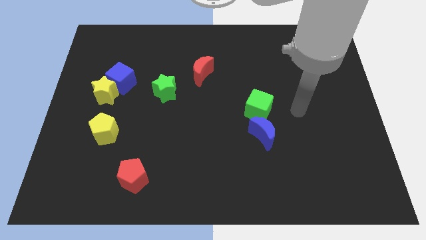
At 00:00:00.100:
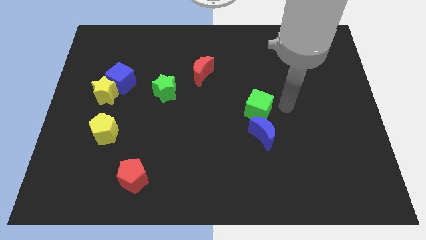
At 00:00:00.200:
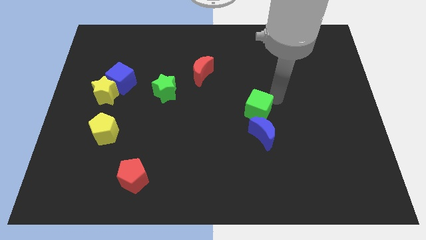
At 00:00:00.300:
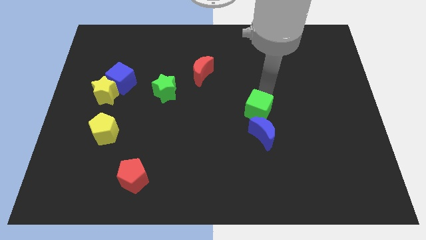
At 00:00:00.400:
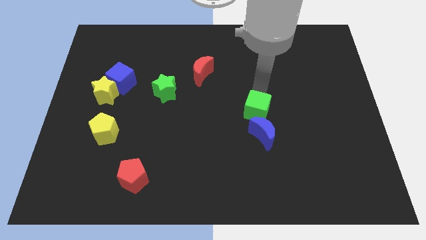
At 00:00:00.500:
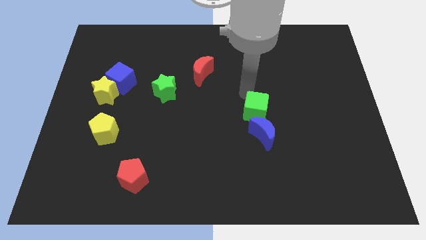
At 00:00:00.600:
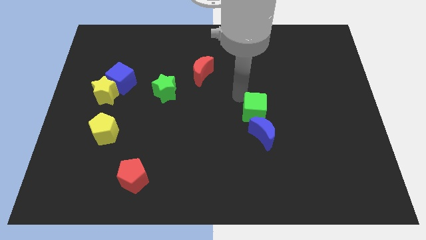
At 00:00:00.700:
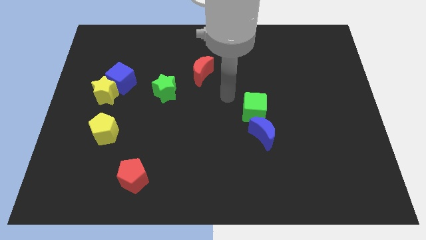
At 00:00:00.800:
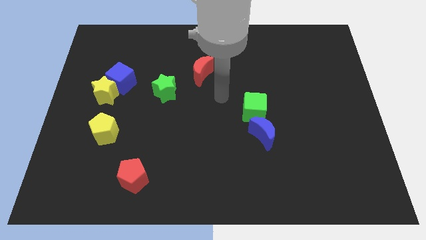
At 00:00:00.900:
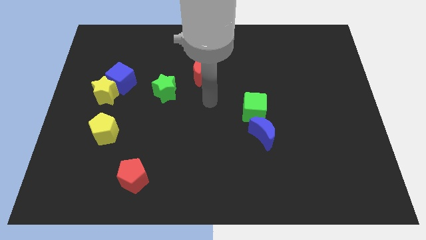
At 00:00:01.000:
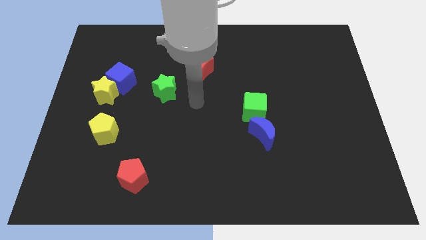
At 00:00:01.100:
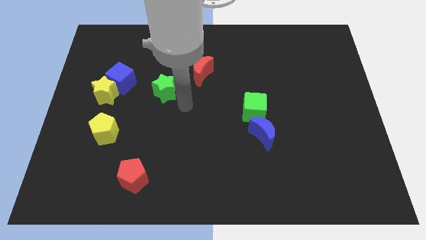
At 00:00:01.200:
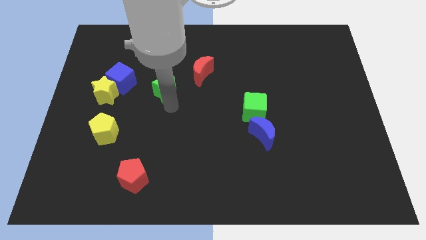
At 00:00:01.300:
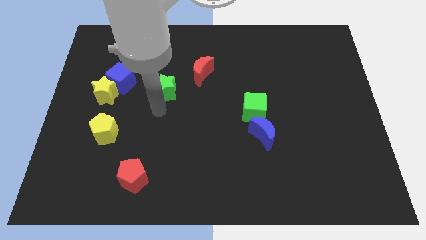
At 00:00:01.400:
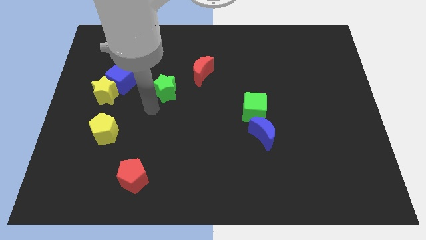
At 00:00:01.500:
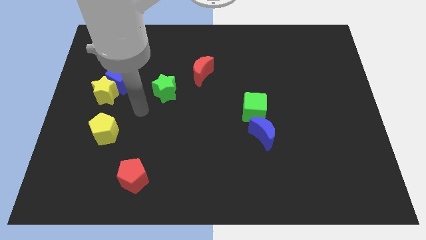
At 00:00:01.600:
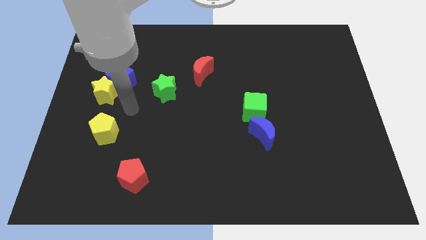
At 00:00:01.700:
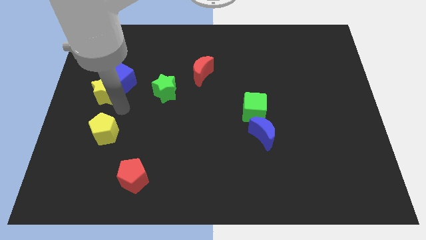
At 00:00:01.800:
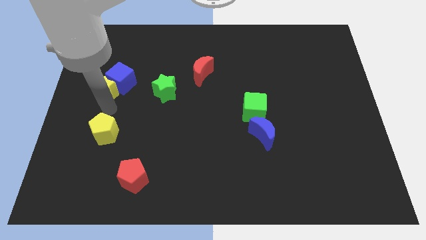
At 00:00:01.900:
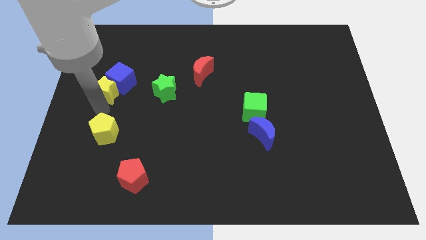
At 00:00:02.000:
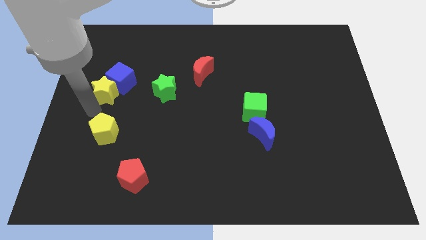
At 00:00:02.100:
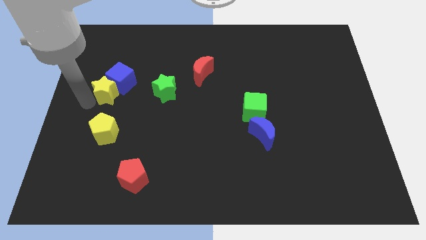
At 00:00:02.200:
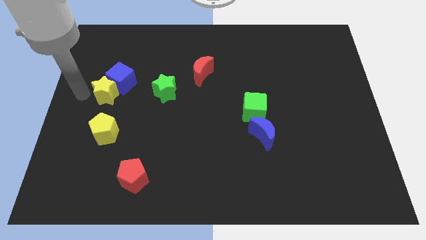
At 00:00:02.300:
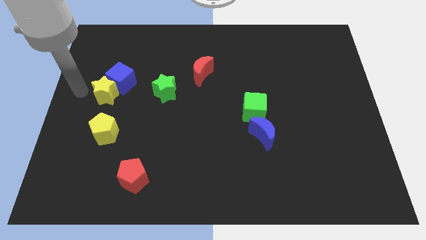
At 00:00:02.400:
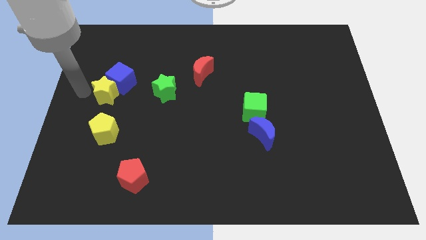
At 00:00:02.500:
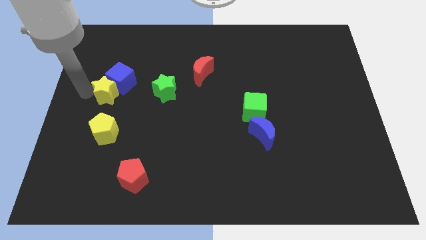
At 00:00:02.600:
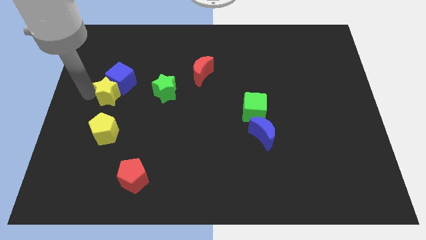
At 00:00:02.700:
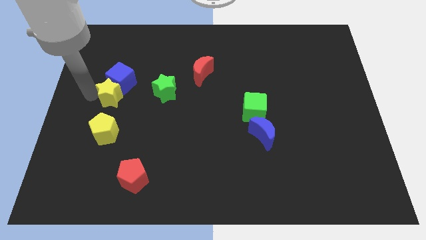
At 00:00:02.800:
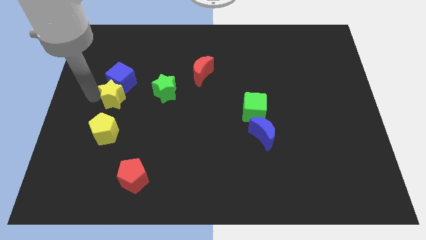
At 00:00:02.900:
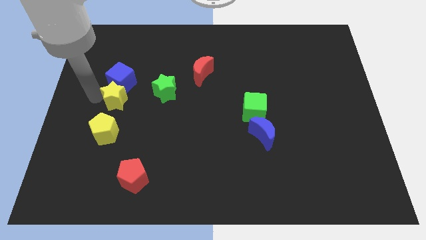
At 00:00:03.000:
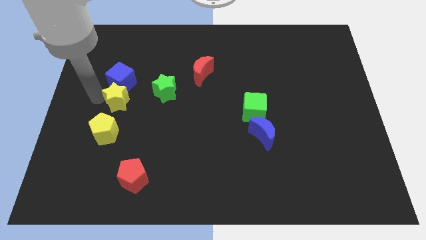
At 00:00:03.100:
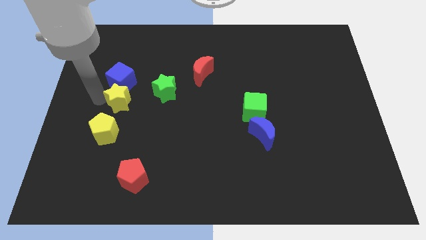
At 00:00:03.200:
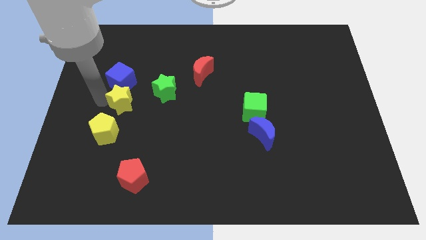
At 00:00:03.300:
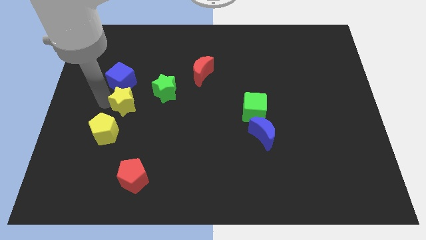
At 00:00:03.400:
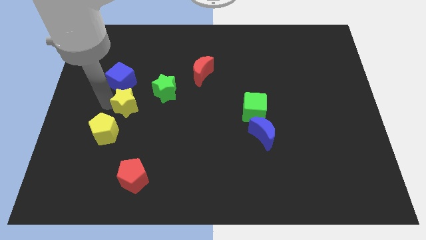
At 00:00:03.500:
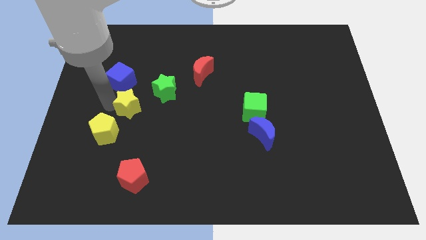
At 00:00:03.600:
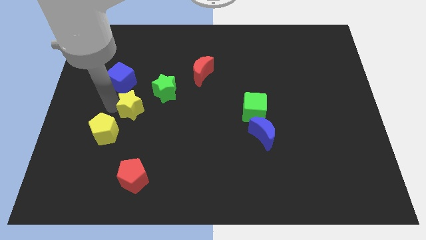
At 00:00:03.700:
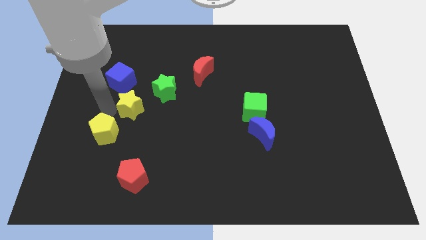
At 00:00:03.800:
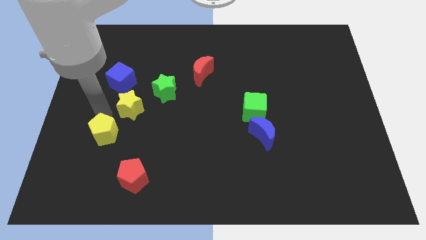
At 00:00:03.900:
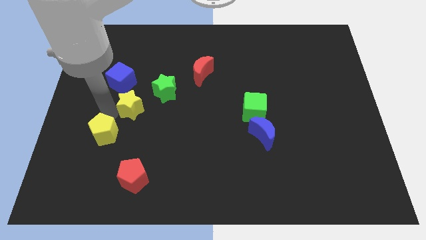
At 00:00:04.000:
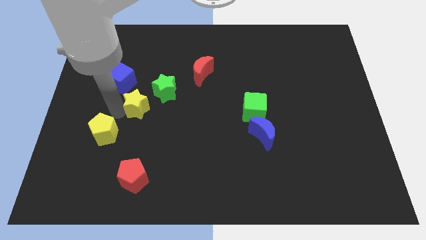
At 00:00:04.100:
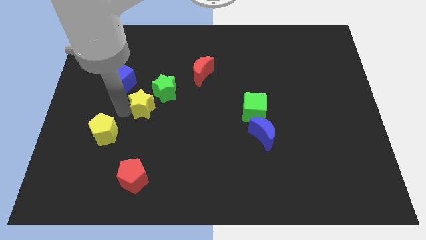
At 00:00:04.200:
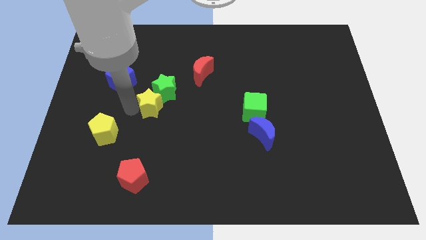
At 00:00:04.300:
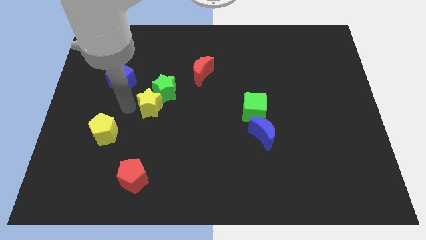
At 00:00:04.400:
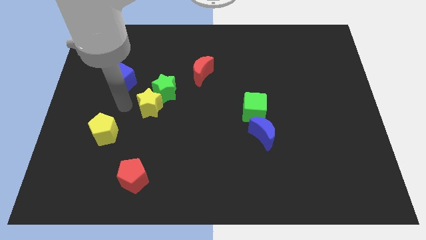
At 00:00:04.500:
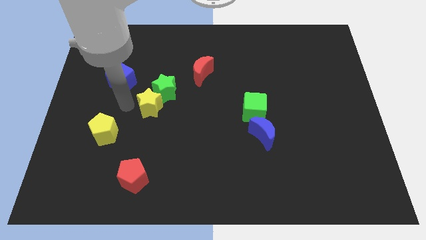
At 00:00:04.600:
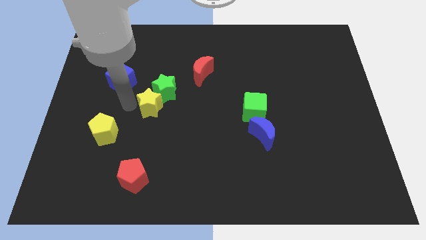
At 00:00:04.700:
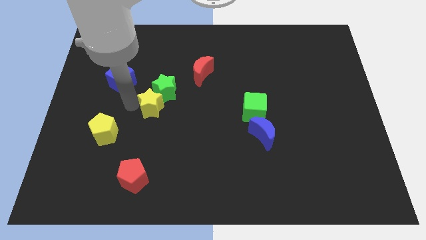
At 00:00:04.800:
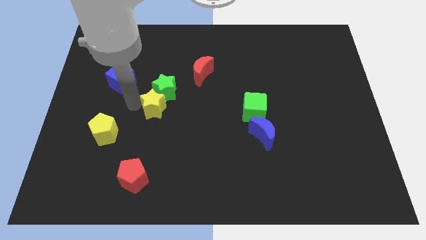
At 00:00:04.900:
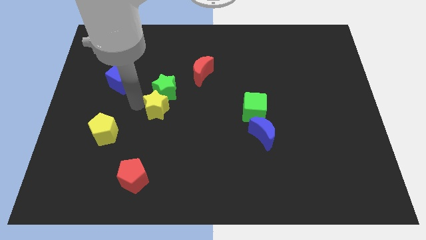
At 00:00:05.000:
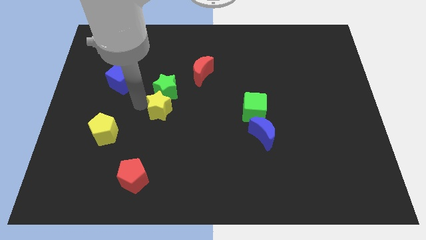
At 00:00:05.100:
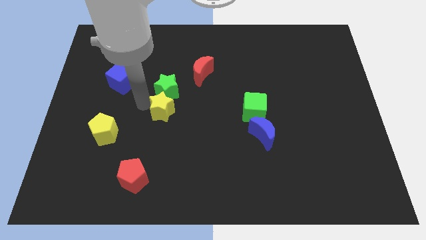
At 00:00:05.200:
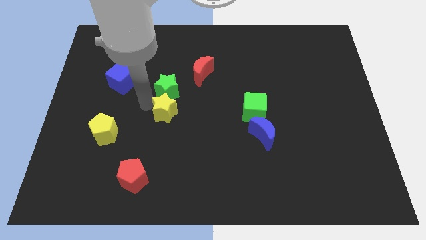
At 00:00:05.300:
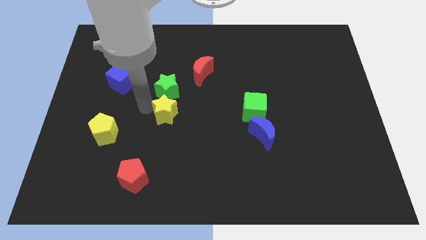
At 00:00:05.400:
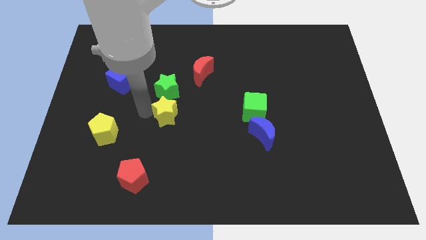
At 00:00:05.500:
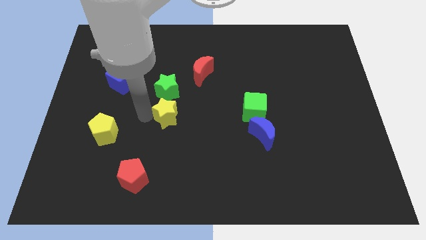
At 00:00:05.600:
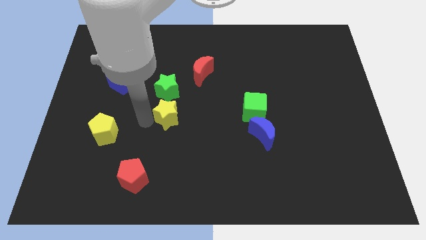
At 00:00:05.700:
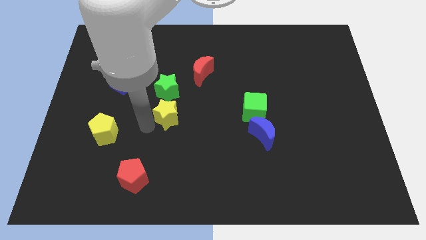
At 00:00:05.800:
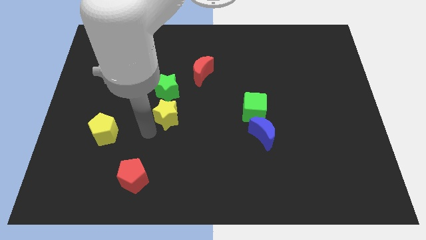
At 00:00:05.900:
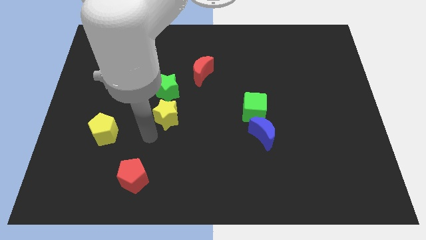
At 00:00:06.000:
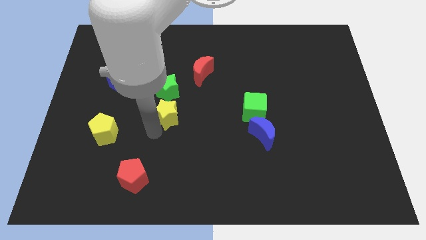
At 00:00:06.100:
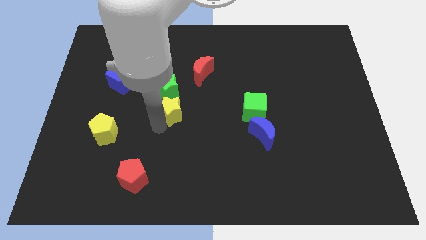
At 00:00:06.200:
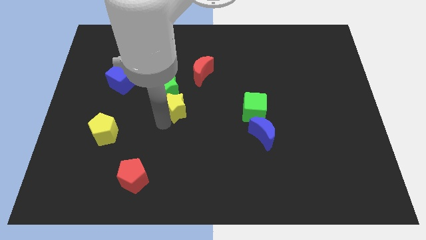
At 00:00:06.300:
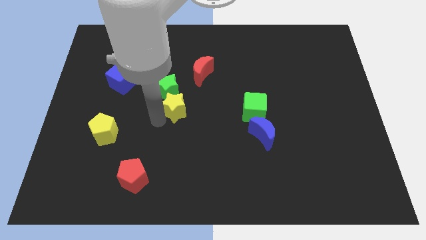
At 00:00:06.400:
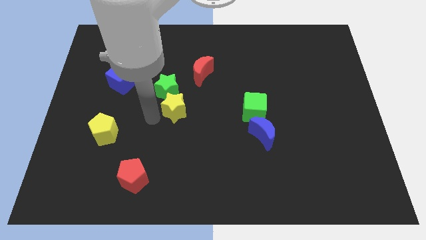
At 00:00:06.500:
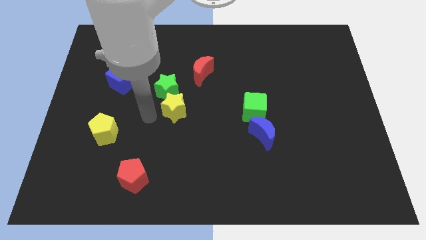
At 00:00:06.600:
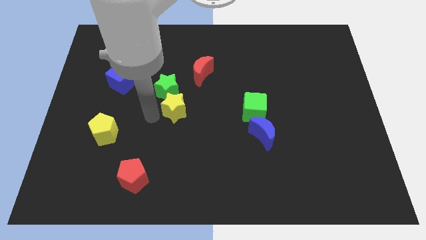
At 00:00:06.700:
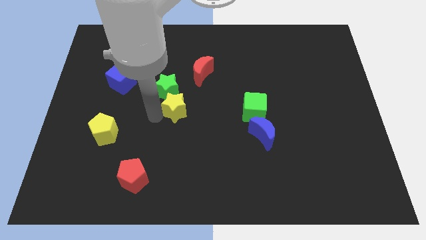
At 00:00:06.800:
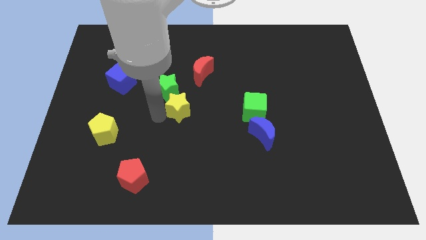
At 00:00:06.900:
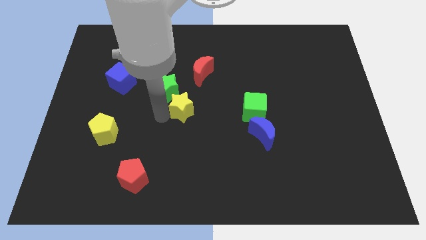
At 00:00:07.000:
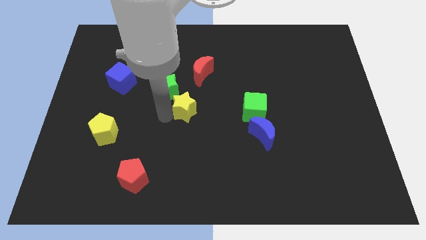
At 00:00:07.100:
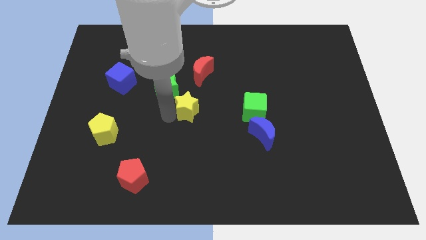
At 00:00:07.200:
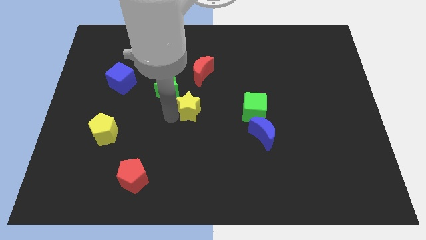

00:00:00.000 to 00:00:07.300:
slide the yellow star right

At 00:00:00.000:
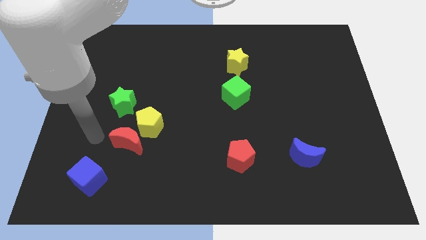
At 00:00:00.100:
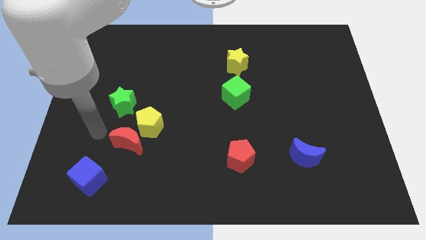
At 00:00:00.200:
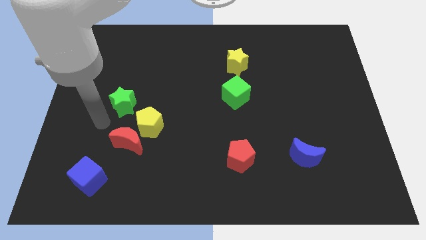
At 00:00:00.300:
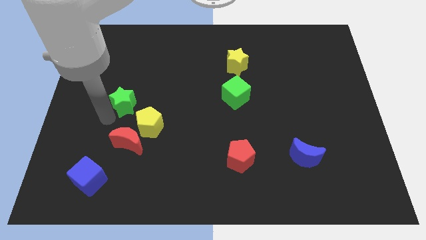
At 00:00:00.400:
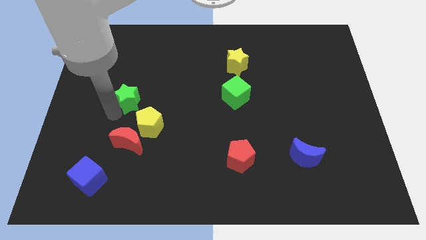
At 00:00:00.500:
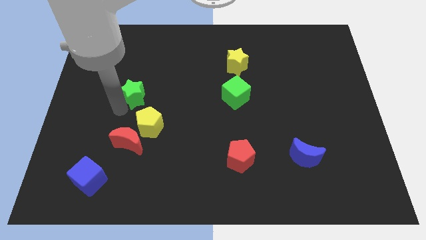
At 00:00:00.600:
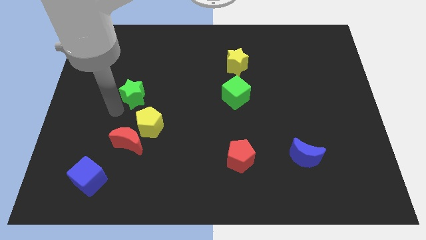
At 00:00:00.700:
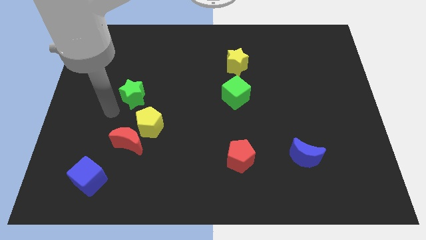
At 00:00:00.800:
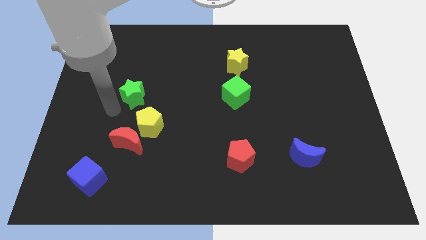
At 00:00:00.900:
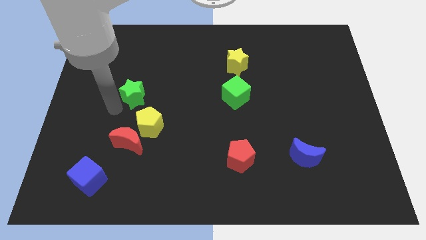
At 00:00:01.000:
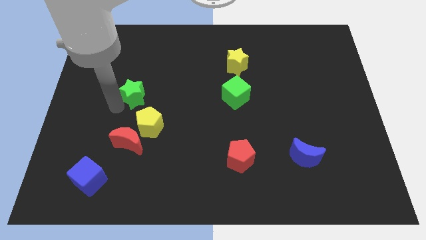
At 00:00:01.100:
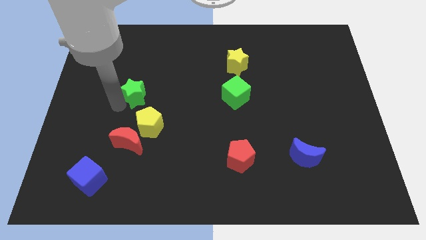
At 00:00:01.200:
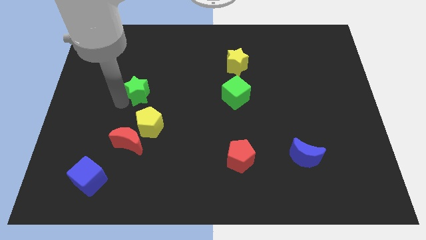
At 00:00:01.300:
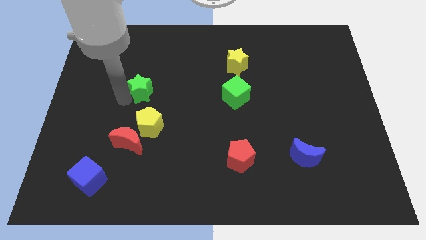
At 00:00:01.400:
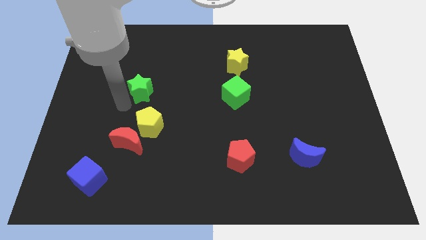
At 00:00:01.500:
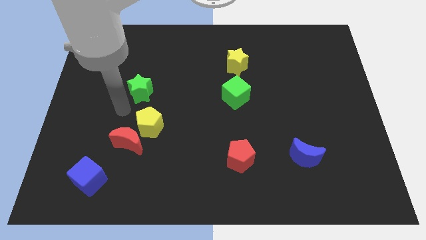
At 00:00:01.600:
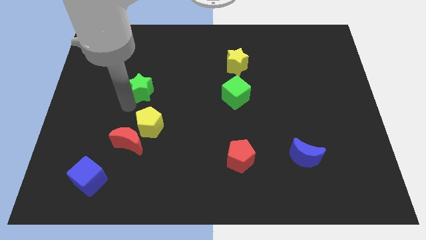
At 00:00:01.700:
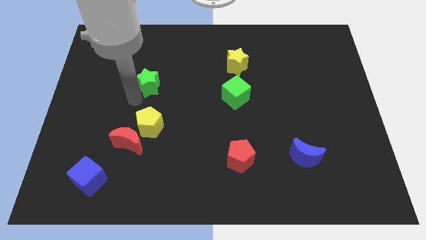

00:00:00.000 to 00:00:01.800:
slightly move the green star upwards and then to the right
